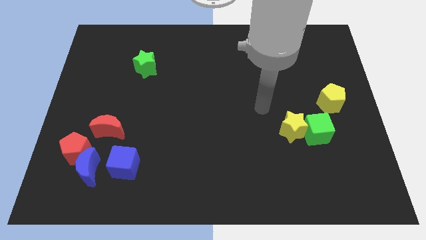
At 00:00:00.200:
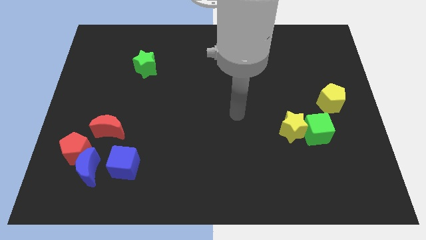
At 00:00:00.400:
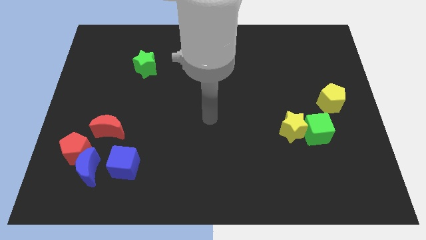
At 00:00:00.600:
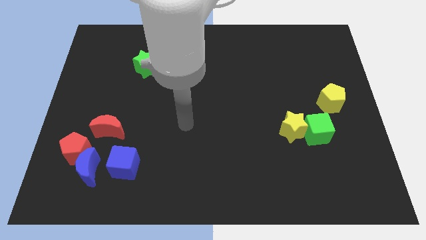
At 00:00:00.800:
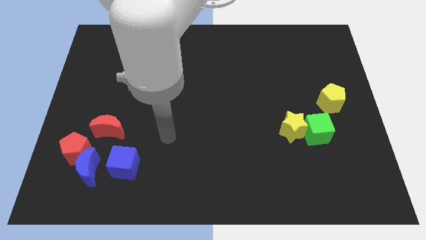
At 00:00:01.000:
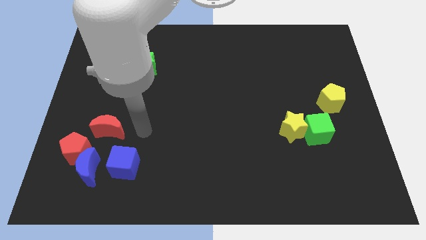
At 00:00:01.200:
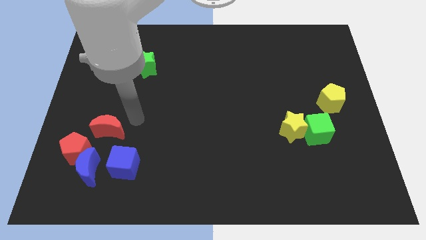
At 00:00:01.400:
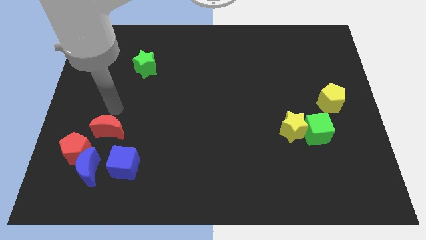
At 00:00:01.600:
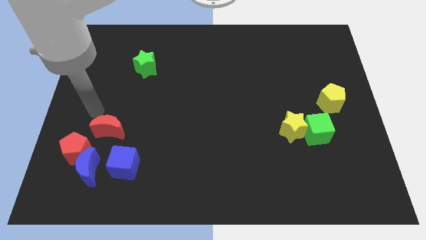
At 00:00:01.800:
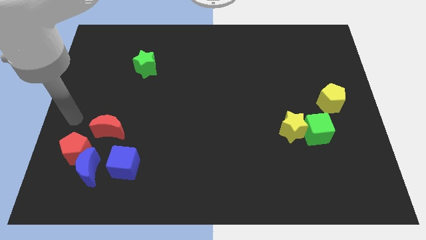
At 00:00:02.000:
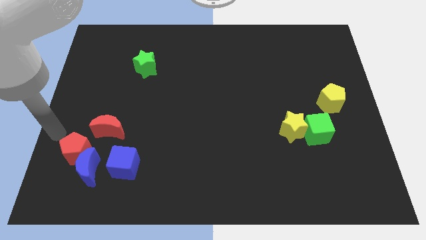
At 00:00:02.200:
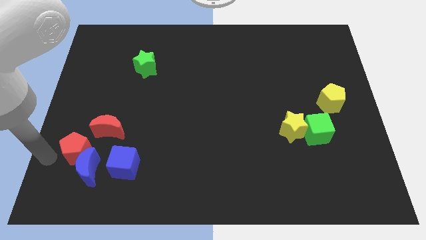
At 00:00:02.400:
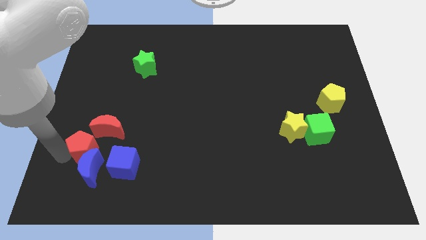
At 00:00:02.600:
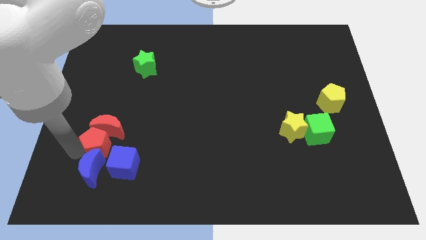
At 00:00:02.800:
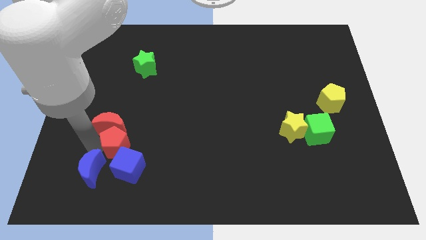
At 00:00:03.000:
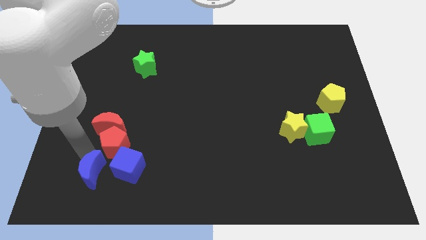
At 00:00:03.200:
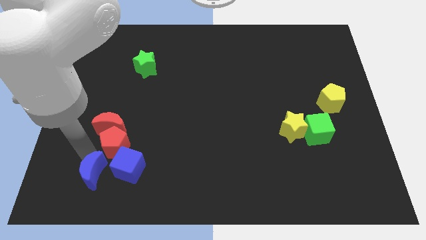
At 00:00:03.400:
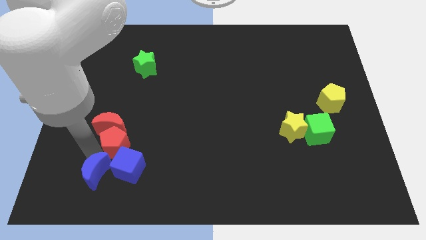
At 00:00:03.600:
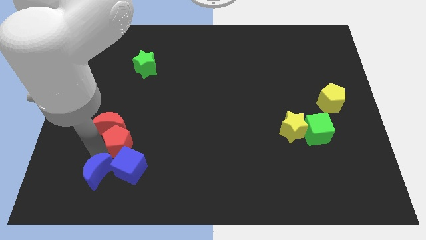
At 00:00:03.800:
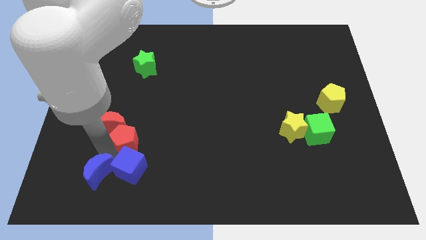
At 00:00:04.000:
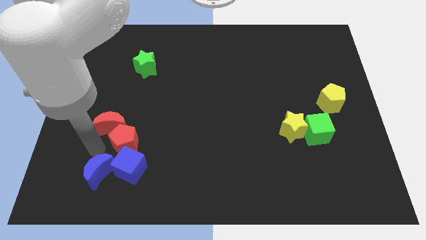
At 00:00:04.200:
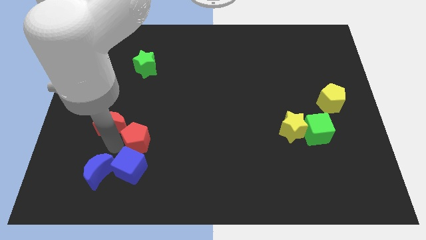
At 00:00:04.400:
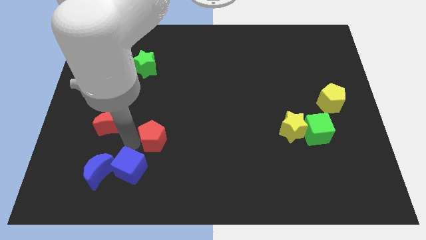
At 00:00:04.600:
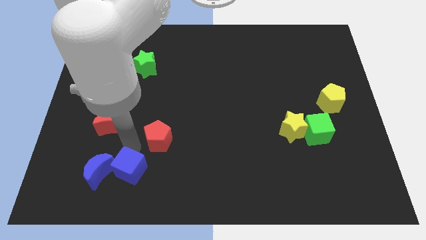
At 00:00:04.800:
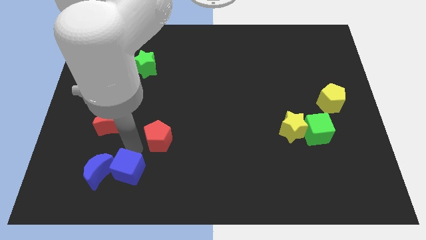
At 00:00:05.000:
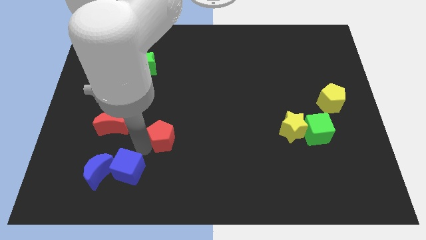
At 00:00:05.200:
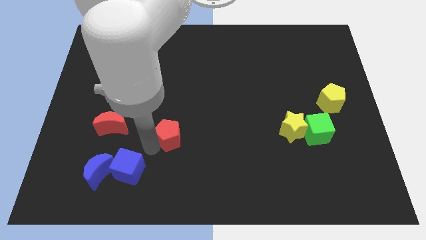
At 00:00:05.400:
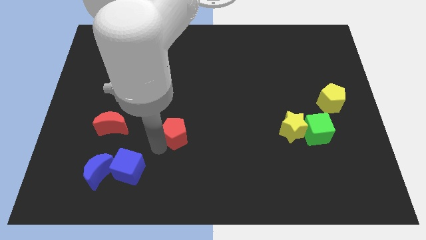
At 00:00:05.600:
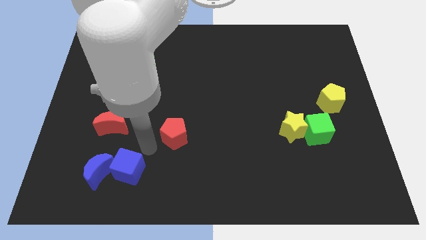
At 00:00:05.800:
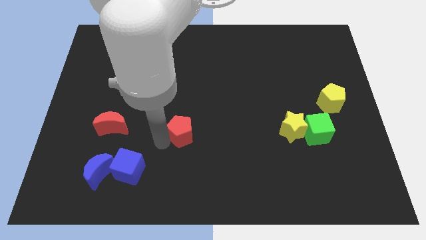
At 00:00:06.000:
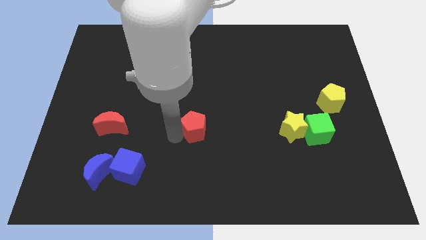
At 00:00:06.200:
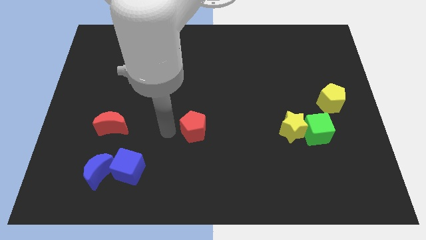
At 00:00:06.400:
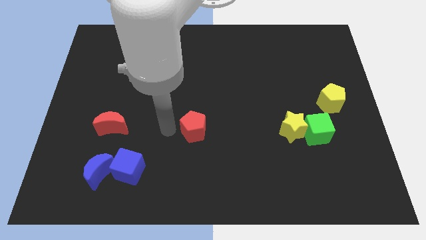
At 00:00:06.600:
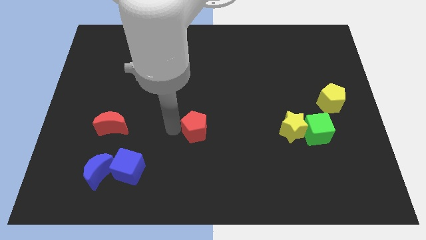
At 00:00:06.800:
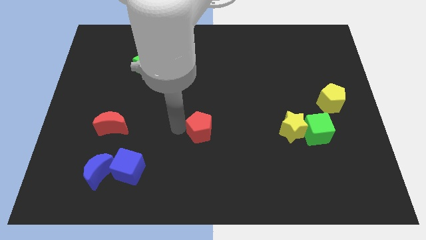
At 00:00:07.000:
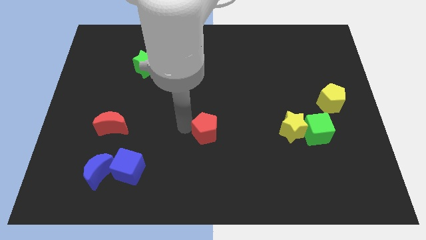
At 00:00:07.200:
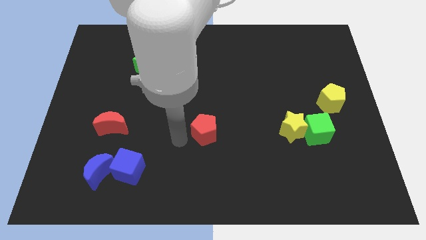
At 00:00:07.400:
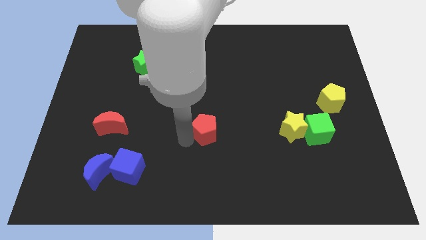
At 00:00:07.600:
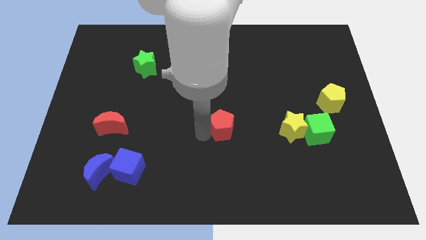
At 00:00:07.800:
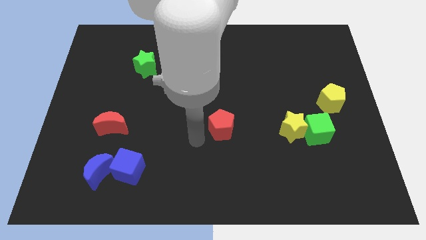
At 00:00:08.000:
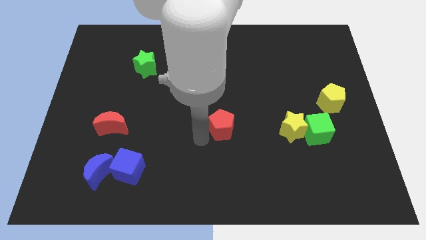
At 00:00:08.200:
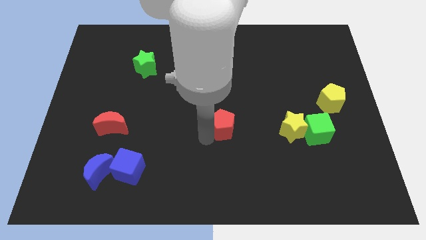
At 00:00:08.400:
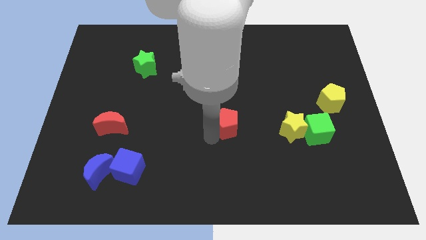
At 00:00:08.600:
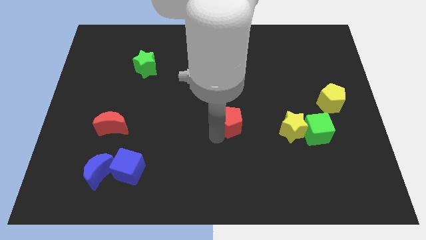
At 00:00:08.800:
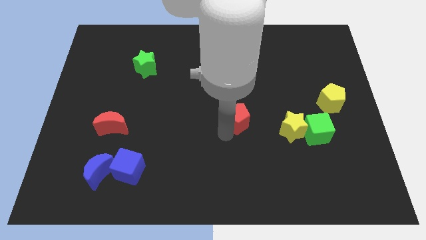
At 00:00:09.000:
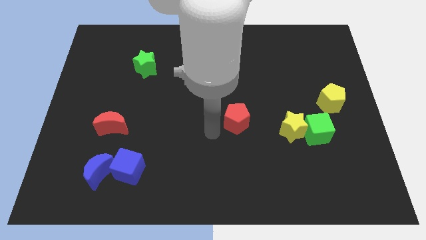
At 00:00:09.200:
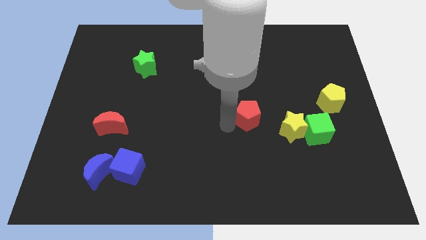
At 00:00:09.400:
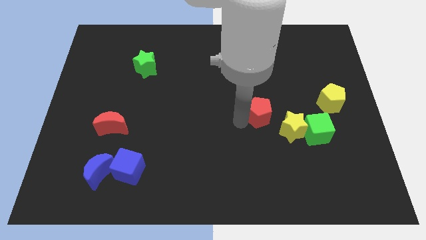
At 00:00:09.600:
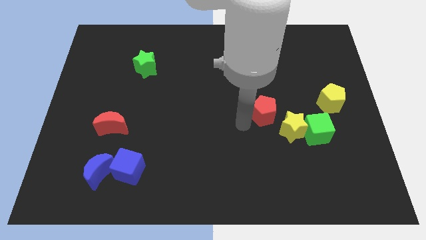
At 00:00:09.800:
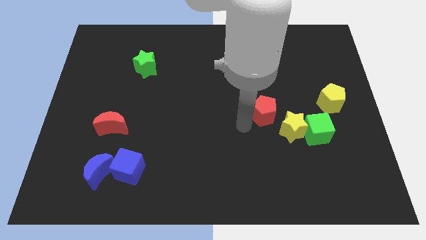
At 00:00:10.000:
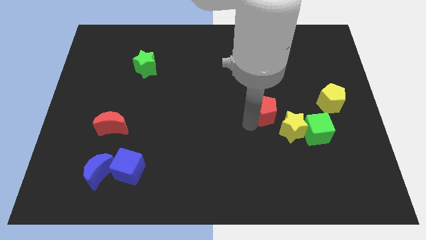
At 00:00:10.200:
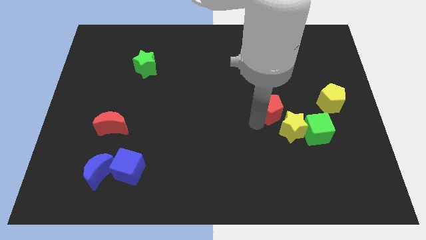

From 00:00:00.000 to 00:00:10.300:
push the red pentagon to the left side of the yellow pentagon

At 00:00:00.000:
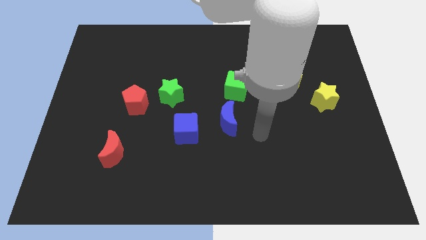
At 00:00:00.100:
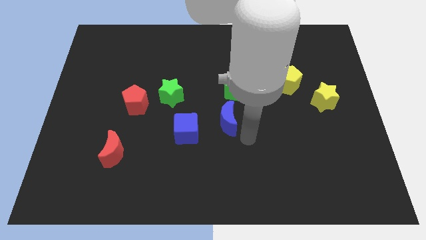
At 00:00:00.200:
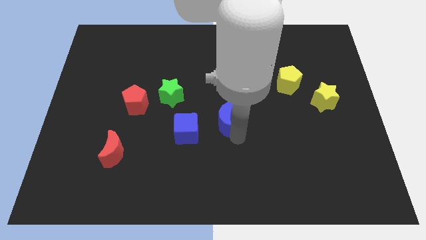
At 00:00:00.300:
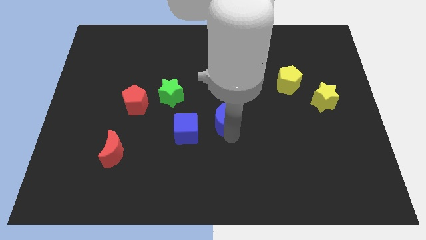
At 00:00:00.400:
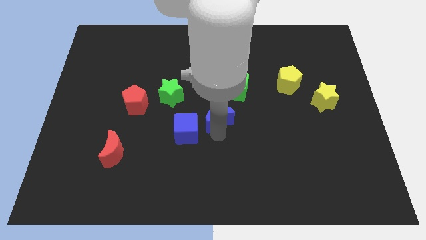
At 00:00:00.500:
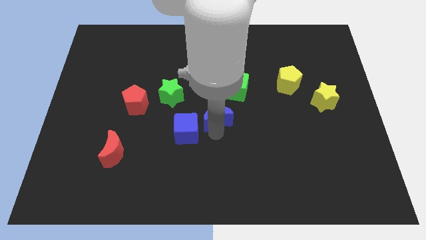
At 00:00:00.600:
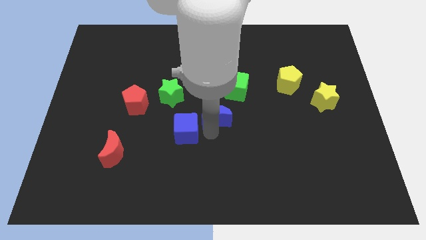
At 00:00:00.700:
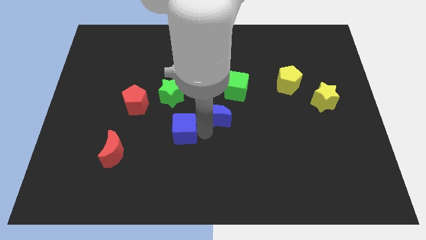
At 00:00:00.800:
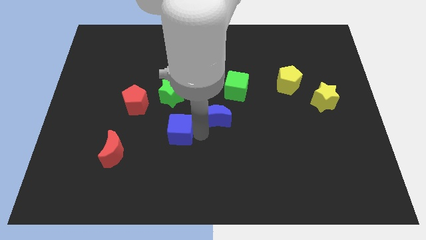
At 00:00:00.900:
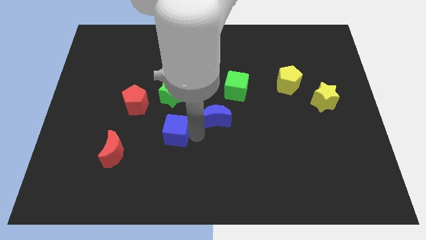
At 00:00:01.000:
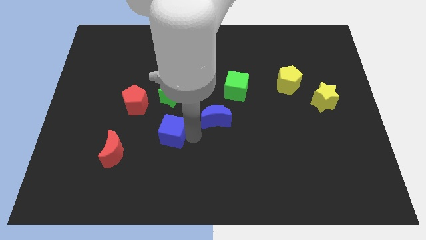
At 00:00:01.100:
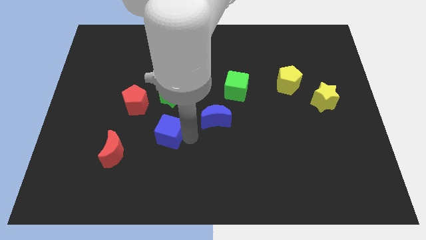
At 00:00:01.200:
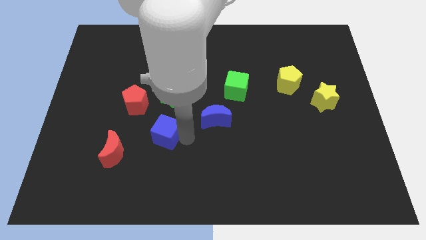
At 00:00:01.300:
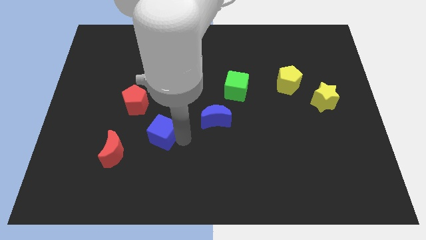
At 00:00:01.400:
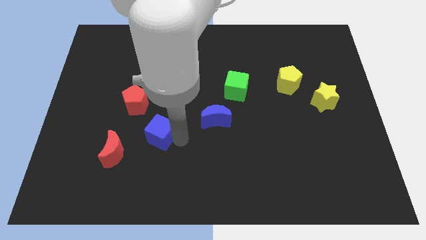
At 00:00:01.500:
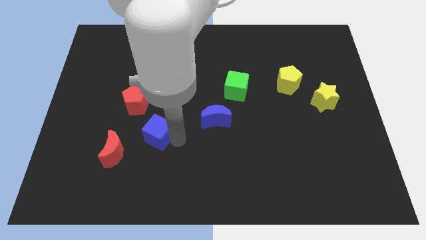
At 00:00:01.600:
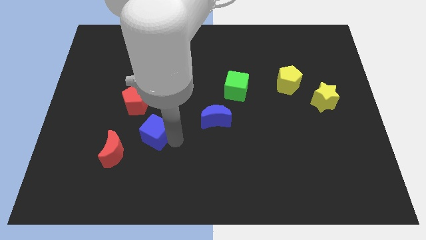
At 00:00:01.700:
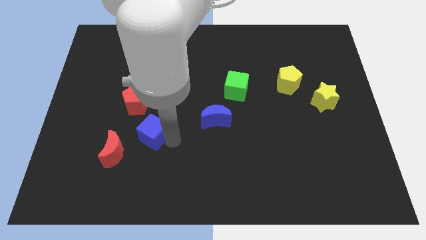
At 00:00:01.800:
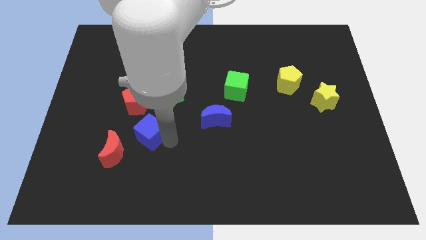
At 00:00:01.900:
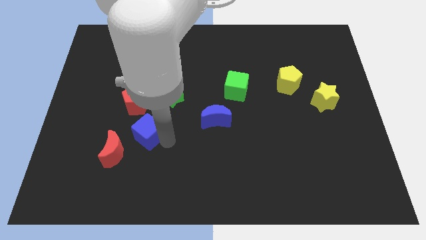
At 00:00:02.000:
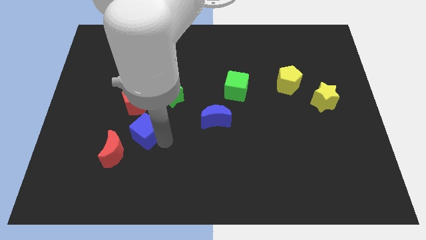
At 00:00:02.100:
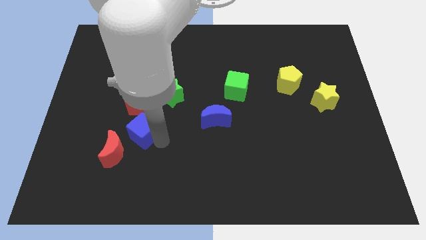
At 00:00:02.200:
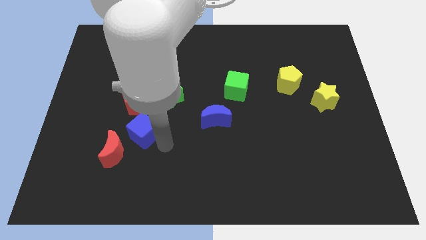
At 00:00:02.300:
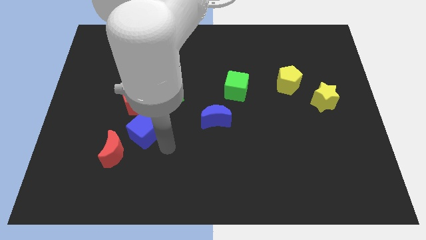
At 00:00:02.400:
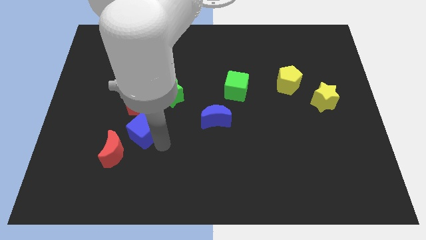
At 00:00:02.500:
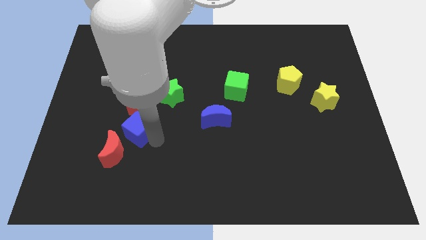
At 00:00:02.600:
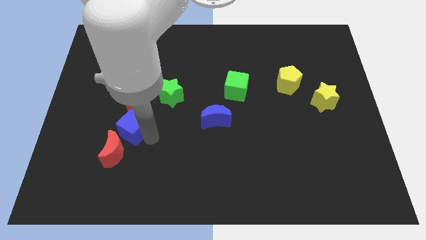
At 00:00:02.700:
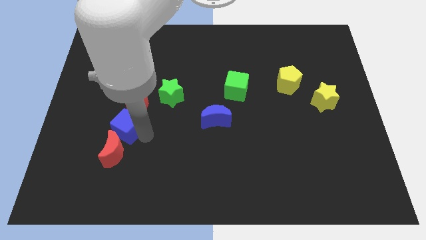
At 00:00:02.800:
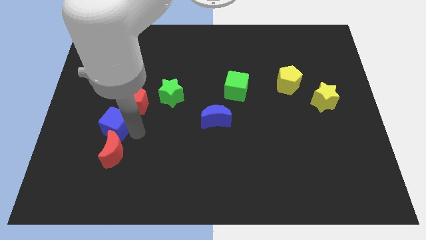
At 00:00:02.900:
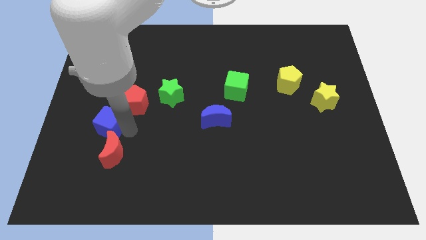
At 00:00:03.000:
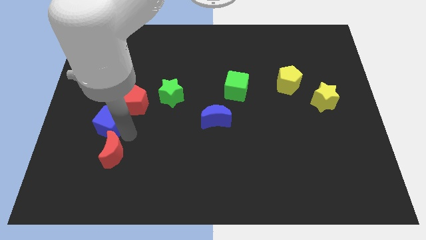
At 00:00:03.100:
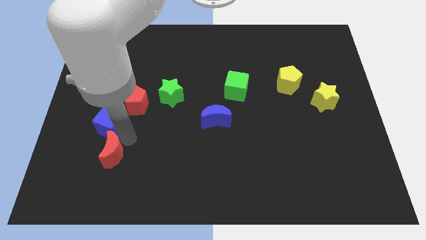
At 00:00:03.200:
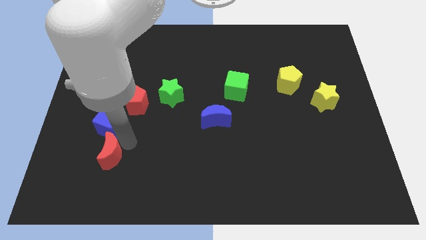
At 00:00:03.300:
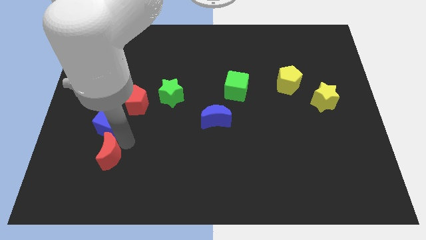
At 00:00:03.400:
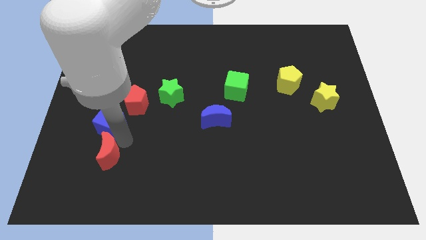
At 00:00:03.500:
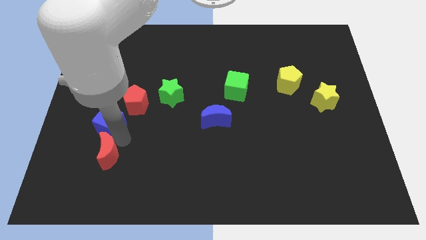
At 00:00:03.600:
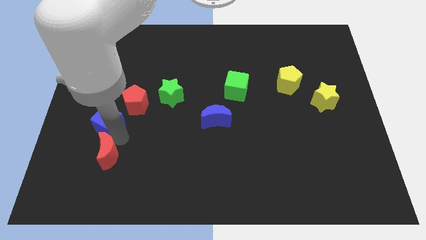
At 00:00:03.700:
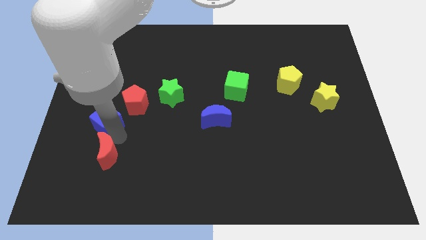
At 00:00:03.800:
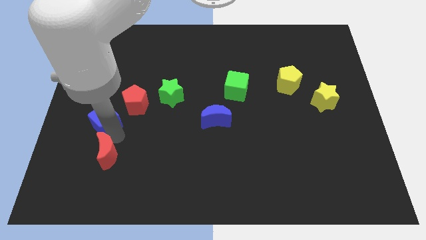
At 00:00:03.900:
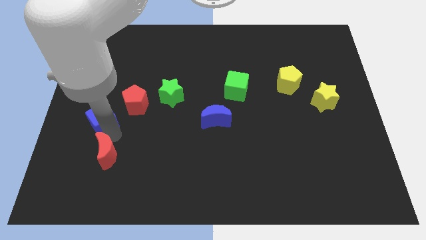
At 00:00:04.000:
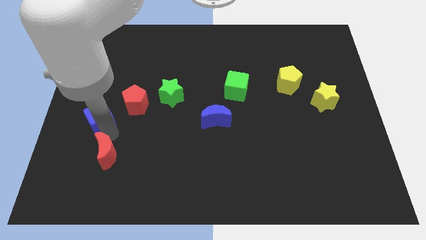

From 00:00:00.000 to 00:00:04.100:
put the blue cube to the left side of the red pentagon
